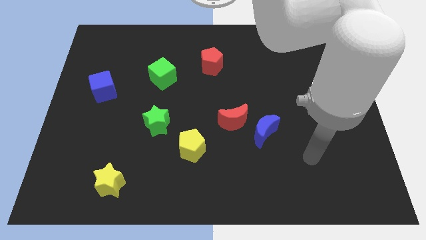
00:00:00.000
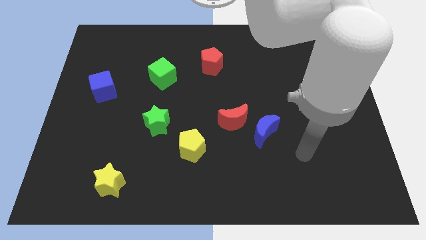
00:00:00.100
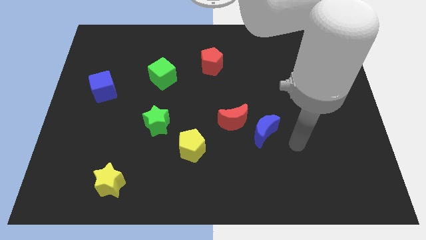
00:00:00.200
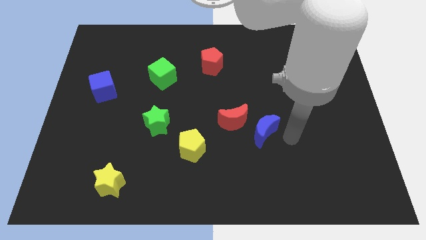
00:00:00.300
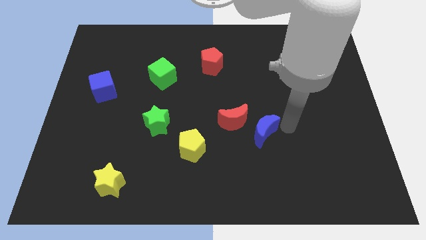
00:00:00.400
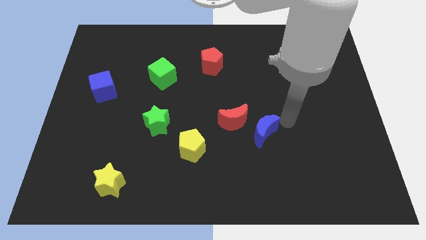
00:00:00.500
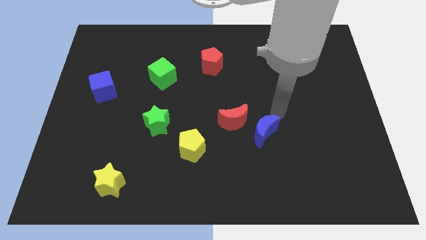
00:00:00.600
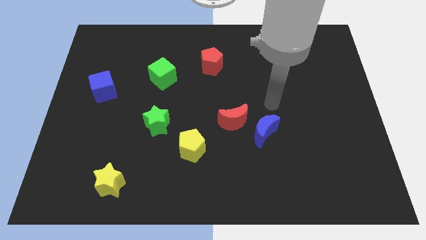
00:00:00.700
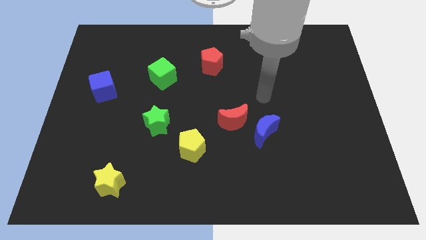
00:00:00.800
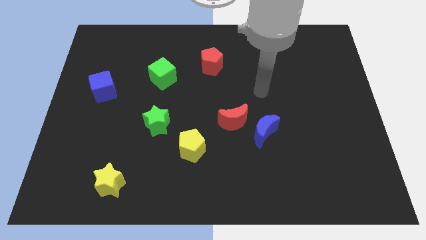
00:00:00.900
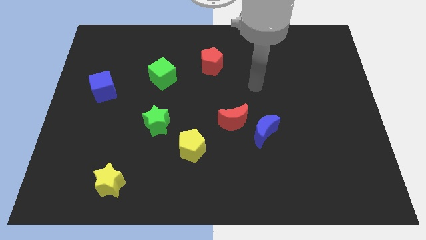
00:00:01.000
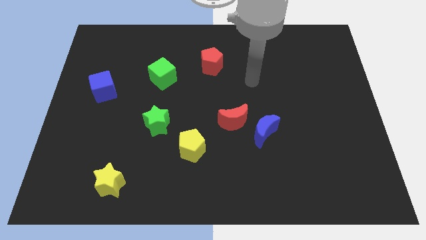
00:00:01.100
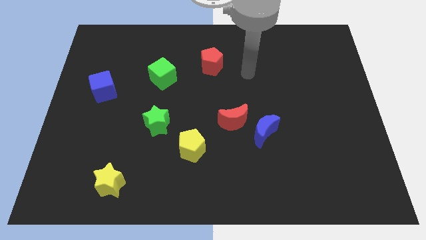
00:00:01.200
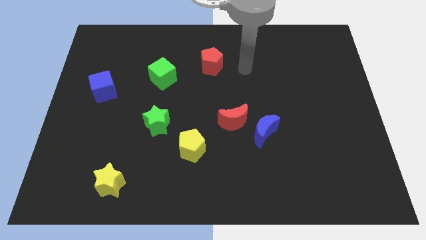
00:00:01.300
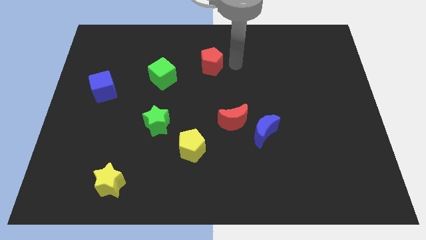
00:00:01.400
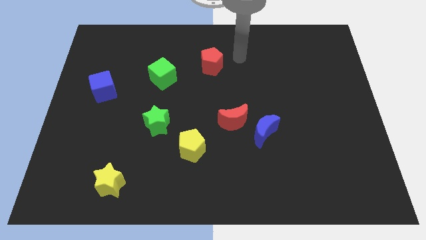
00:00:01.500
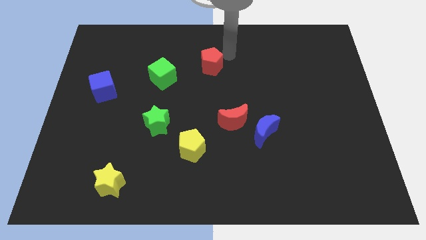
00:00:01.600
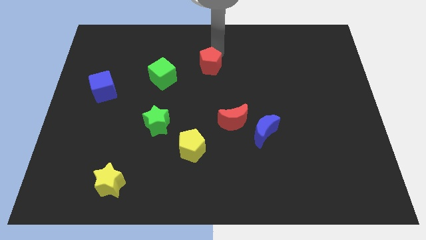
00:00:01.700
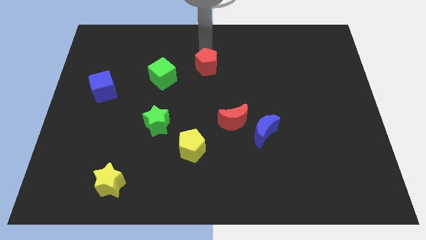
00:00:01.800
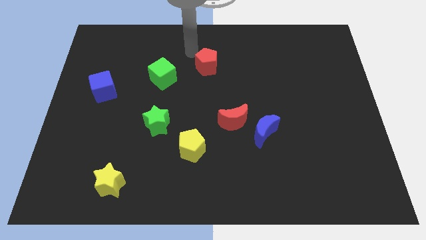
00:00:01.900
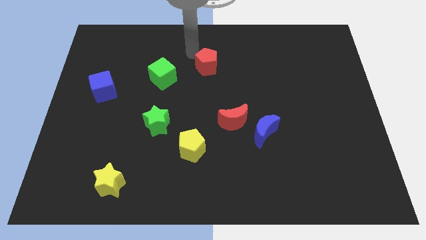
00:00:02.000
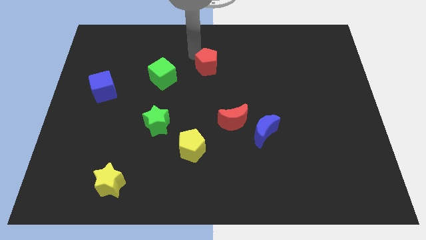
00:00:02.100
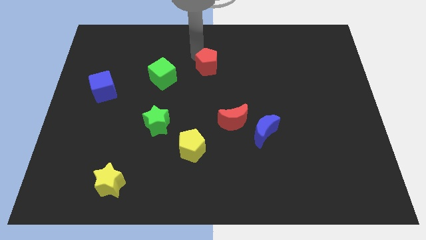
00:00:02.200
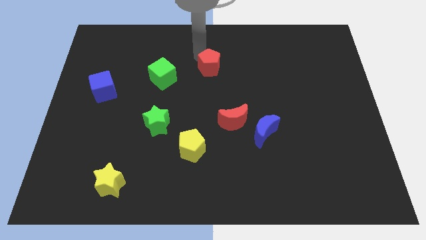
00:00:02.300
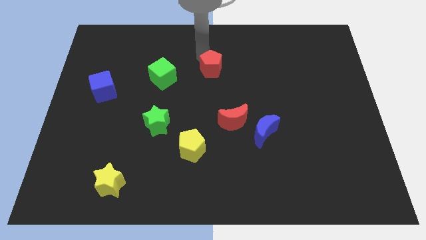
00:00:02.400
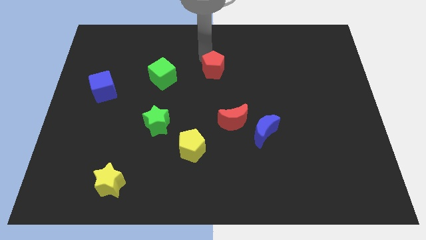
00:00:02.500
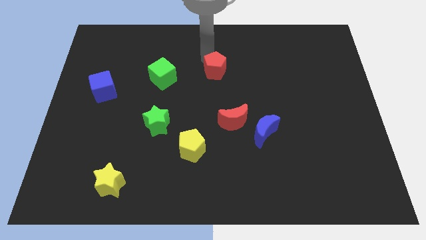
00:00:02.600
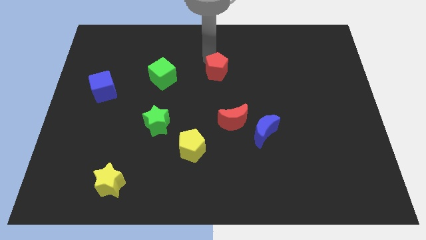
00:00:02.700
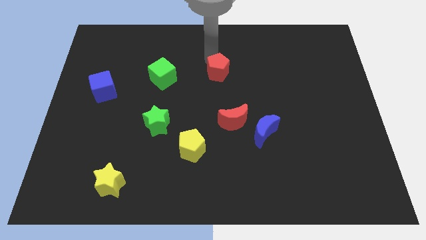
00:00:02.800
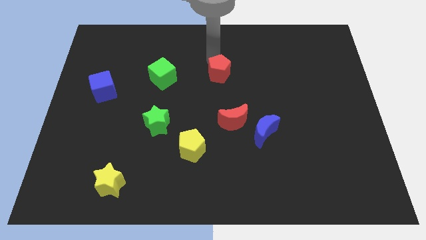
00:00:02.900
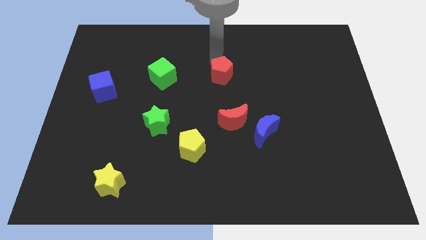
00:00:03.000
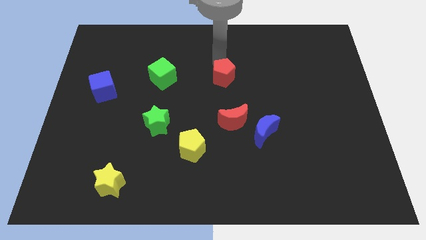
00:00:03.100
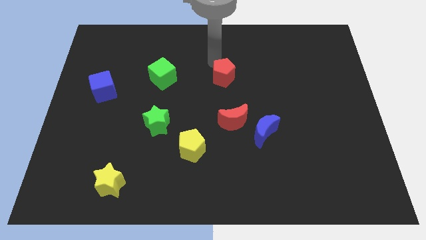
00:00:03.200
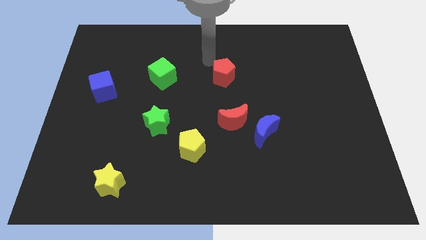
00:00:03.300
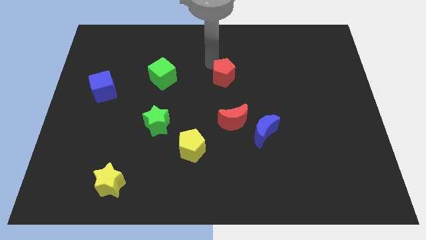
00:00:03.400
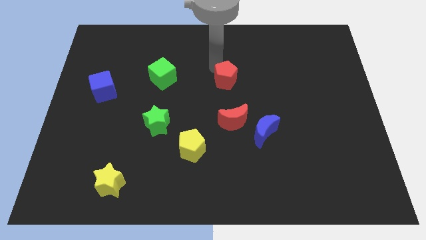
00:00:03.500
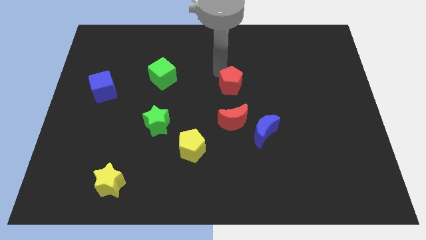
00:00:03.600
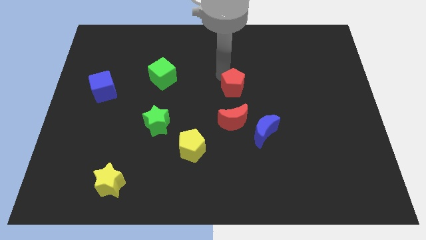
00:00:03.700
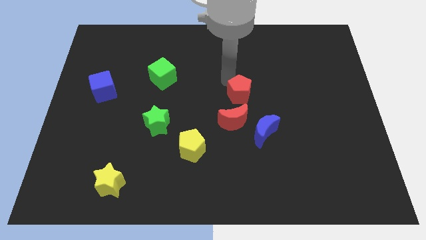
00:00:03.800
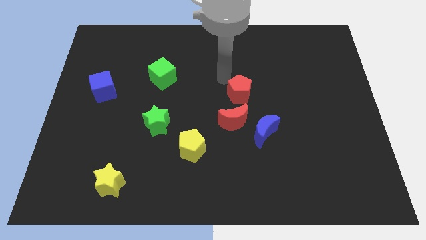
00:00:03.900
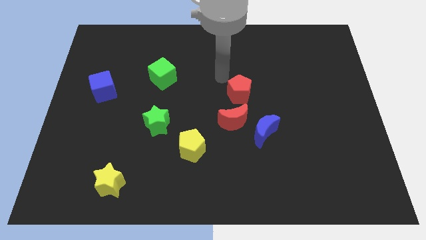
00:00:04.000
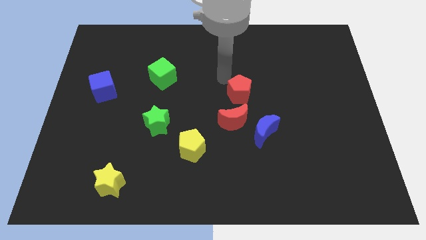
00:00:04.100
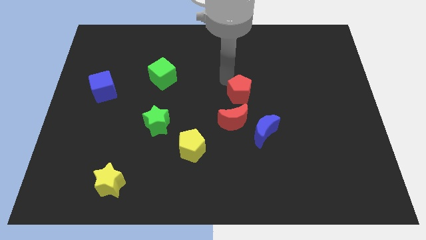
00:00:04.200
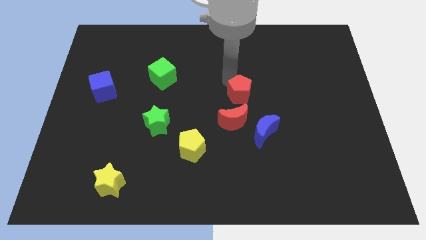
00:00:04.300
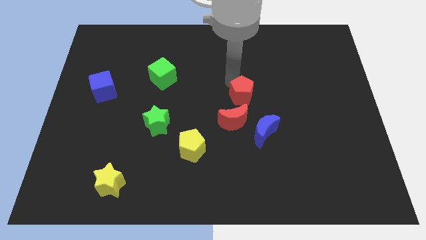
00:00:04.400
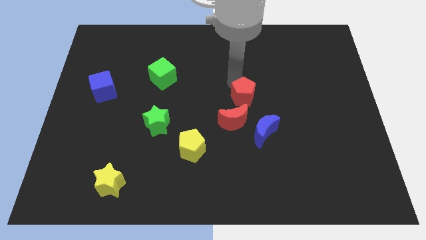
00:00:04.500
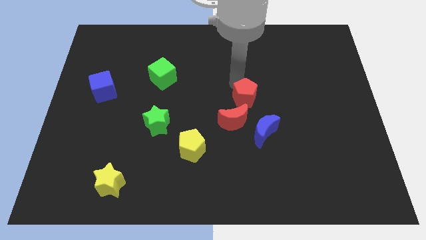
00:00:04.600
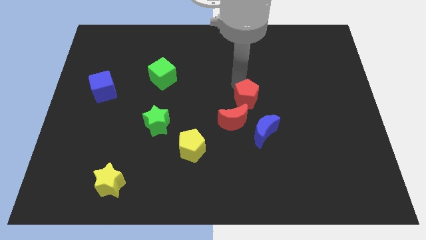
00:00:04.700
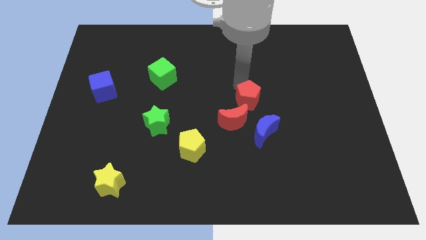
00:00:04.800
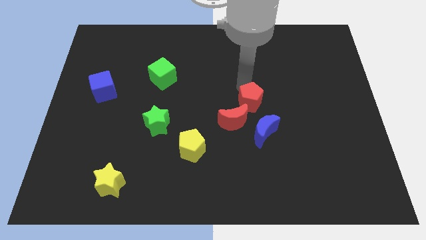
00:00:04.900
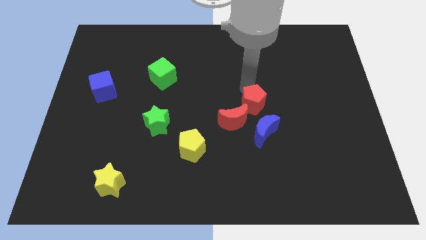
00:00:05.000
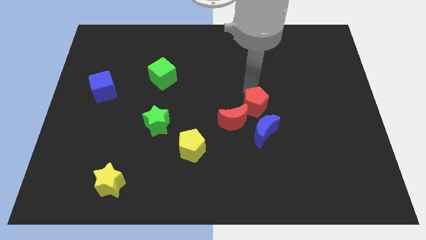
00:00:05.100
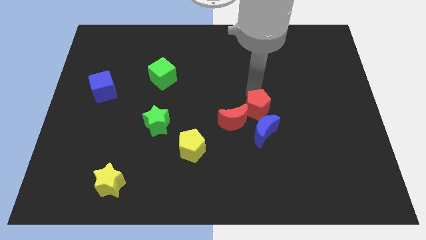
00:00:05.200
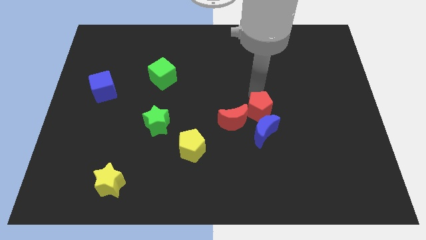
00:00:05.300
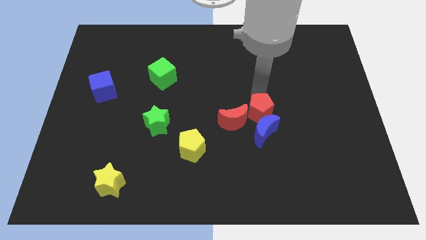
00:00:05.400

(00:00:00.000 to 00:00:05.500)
push the red pentagon next to the blue moon

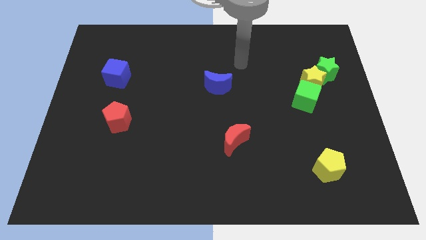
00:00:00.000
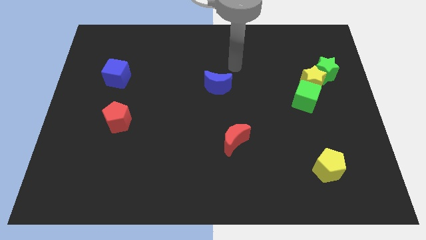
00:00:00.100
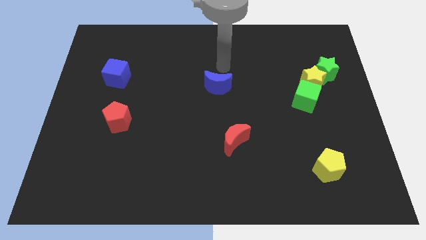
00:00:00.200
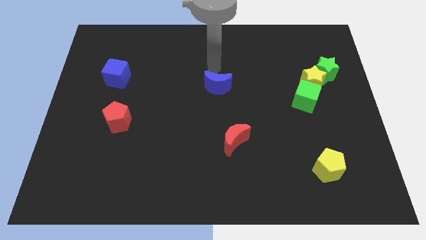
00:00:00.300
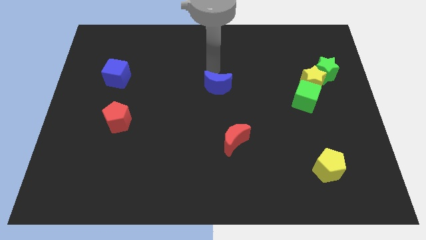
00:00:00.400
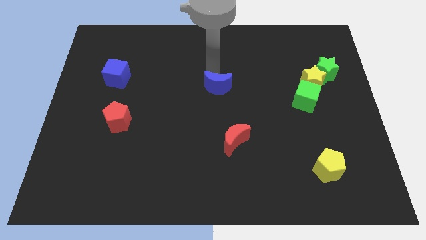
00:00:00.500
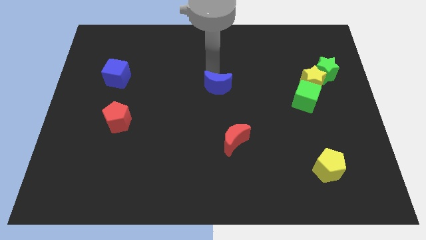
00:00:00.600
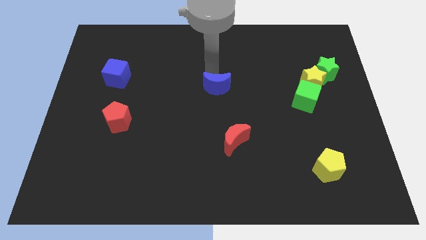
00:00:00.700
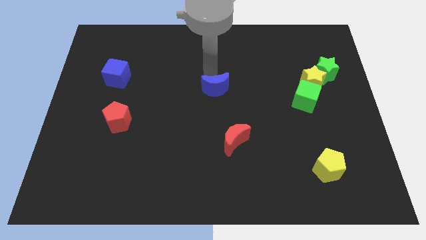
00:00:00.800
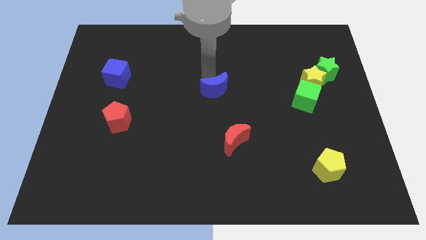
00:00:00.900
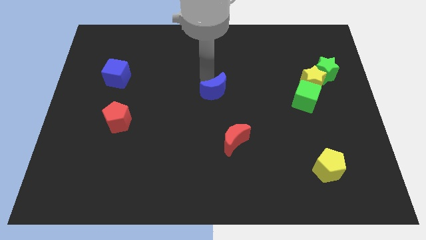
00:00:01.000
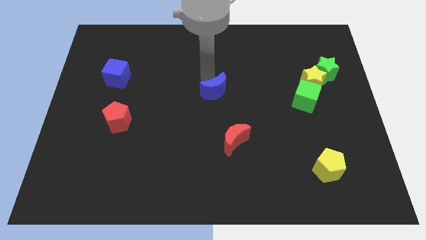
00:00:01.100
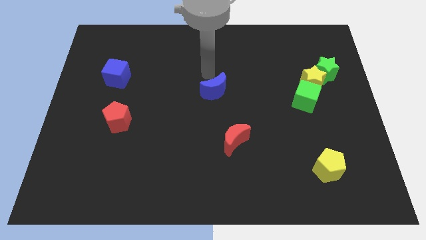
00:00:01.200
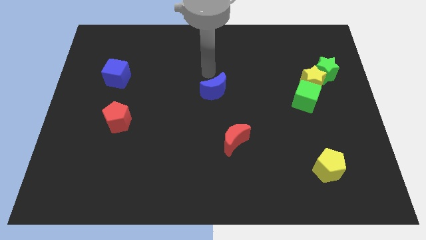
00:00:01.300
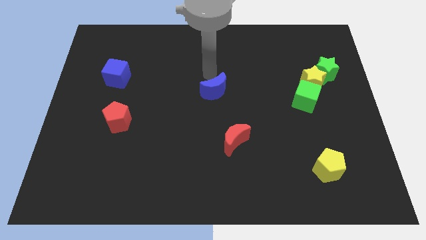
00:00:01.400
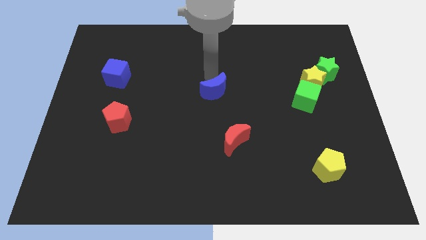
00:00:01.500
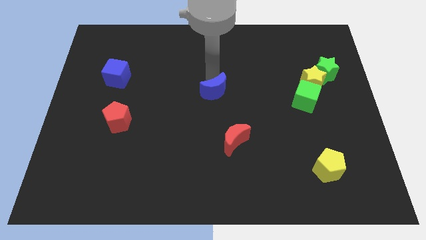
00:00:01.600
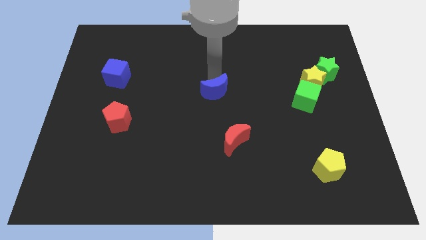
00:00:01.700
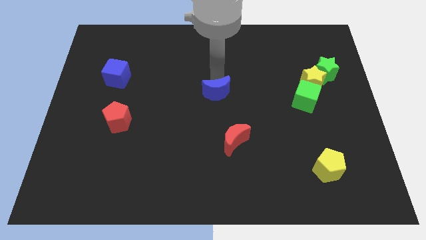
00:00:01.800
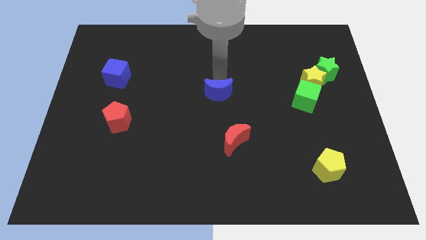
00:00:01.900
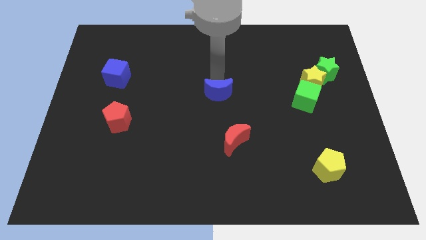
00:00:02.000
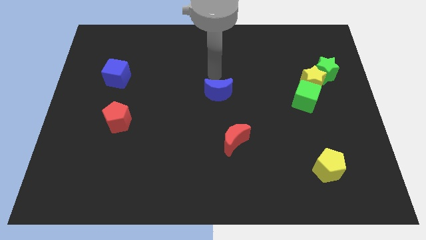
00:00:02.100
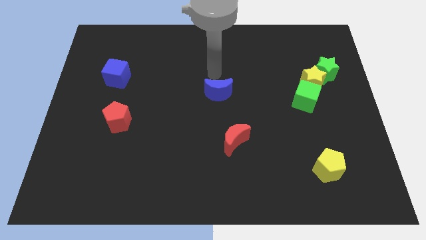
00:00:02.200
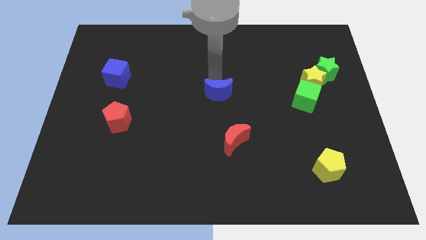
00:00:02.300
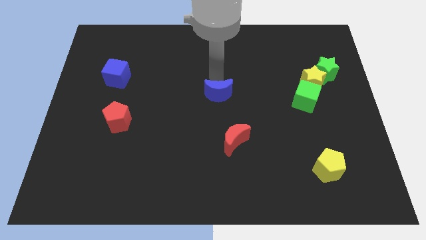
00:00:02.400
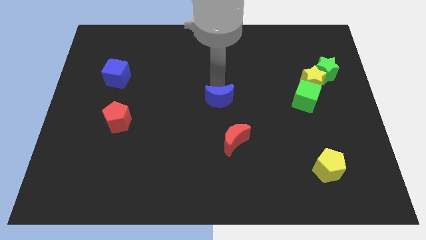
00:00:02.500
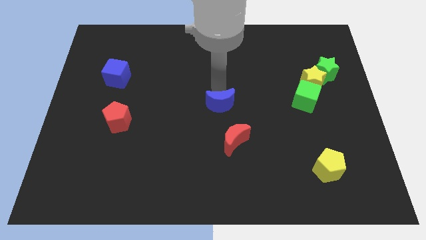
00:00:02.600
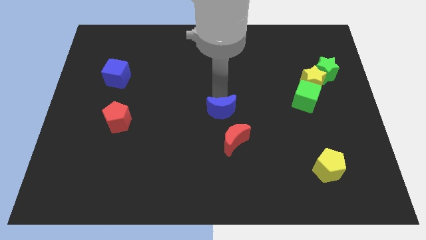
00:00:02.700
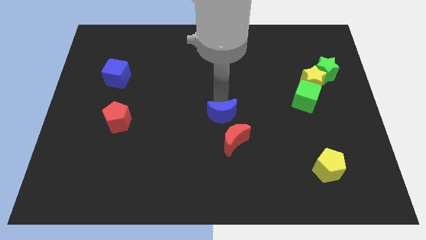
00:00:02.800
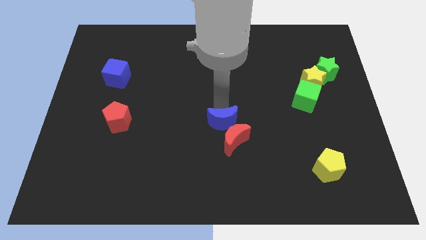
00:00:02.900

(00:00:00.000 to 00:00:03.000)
slide the blue moon next to the red moon
